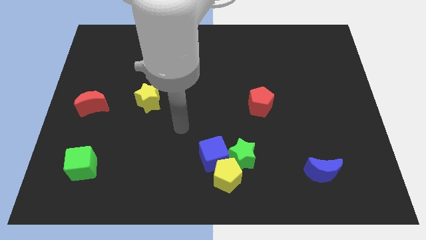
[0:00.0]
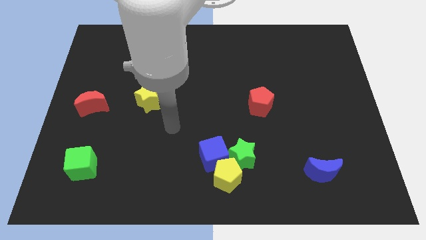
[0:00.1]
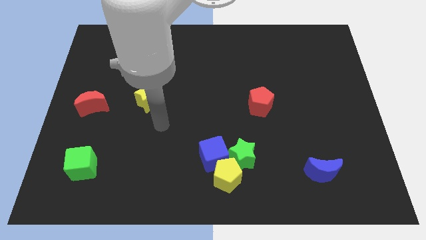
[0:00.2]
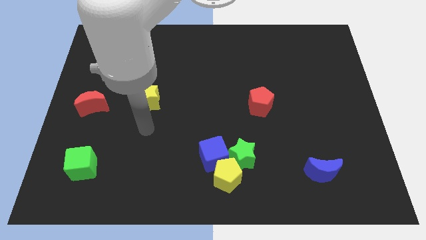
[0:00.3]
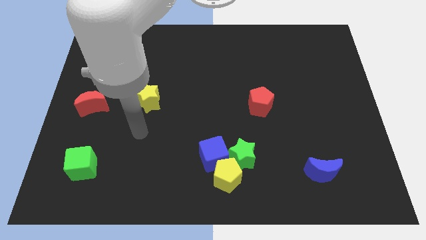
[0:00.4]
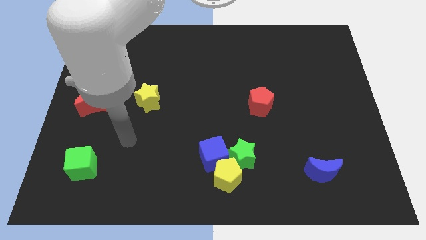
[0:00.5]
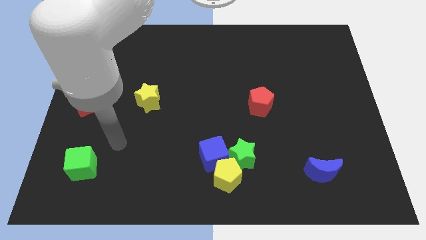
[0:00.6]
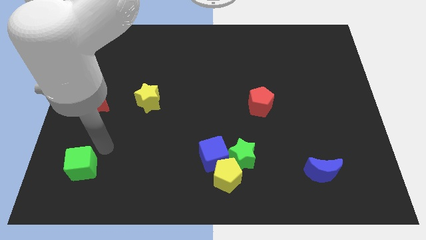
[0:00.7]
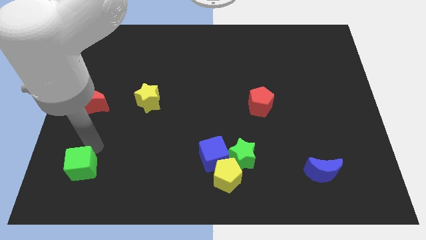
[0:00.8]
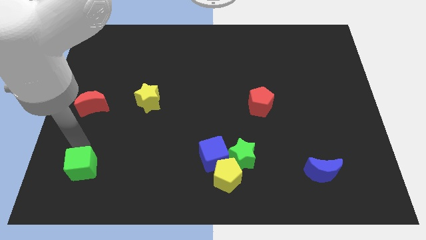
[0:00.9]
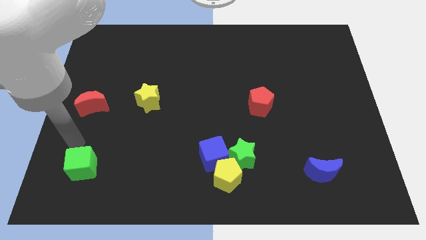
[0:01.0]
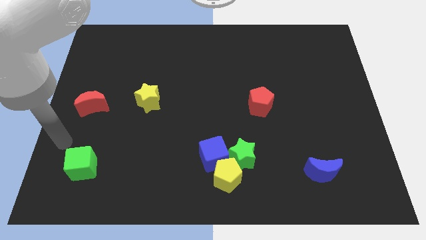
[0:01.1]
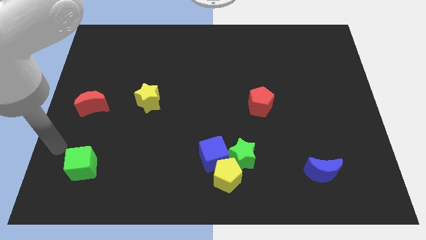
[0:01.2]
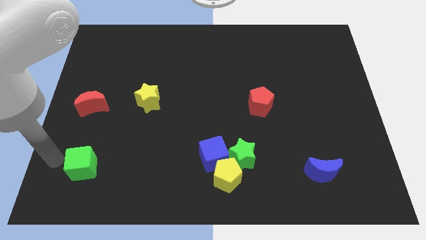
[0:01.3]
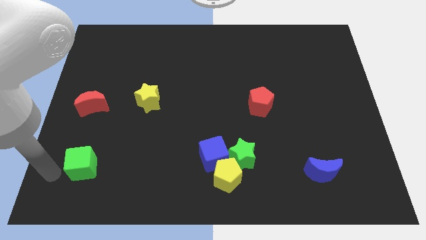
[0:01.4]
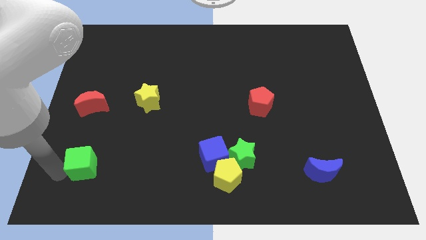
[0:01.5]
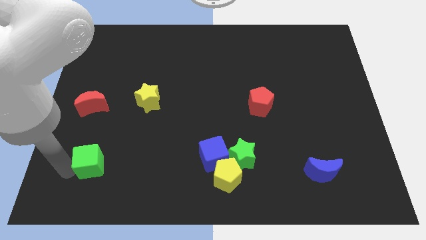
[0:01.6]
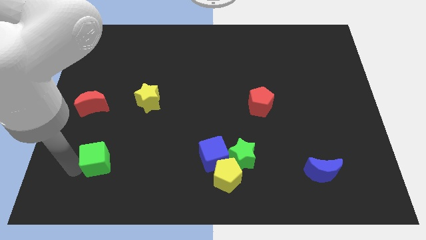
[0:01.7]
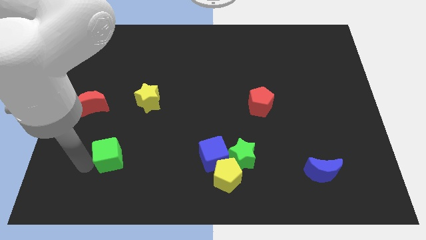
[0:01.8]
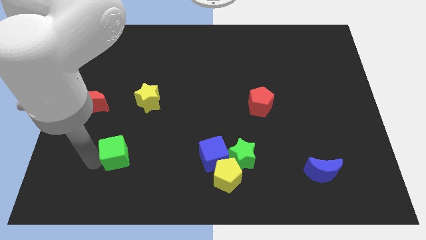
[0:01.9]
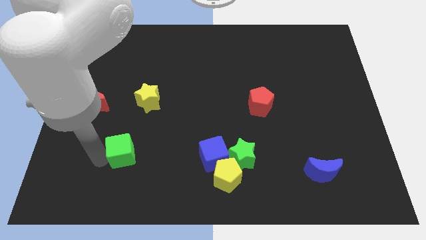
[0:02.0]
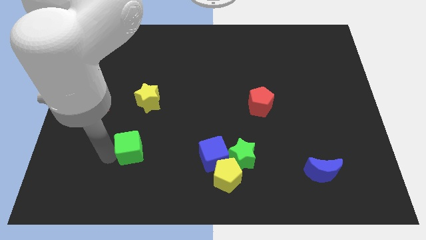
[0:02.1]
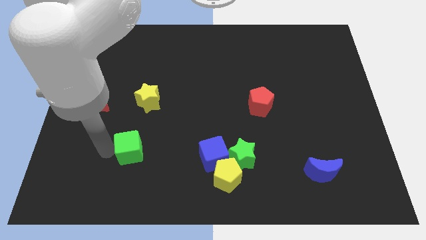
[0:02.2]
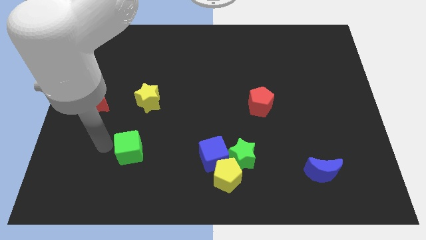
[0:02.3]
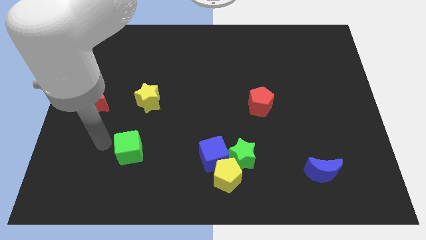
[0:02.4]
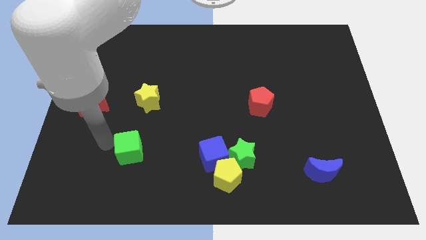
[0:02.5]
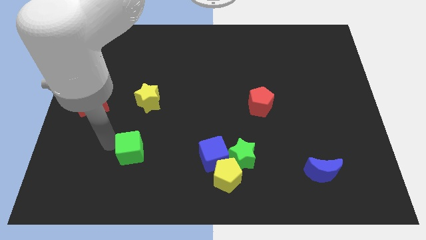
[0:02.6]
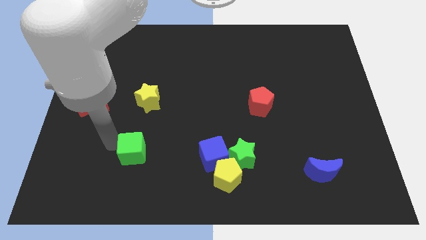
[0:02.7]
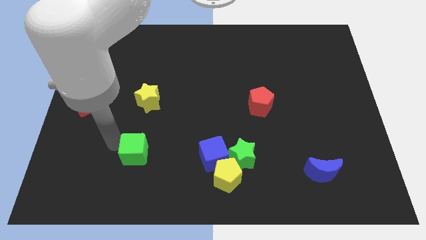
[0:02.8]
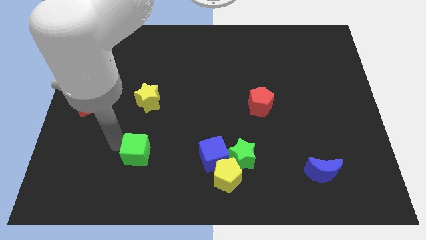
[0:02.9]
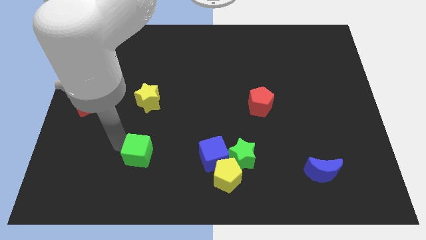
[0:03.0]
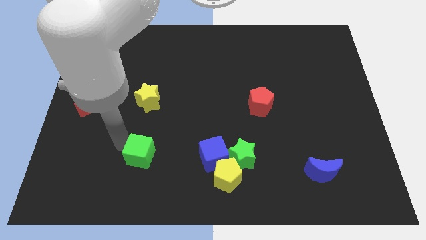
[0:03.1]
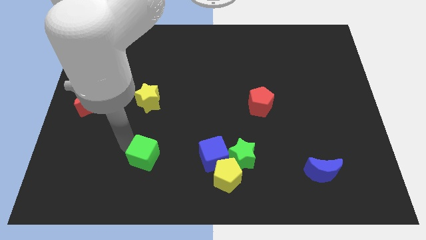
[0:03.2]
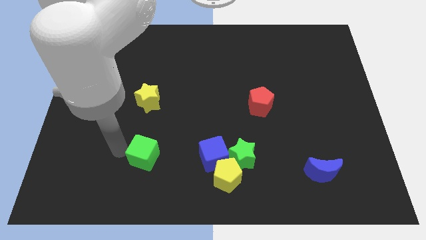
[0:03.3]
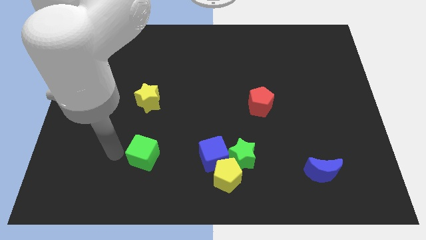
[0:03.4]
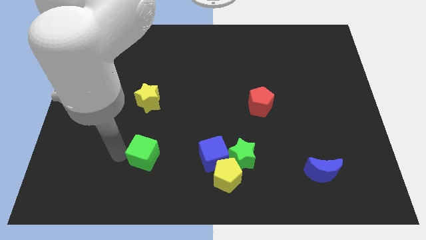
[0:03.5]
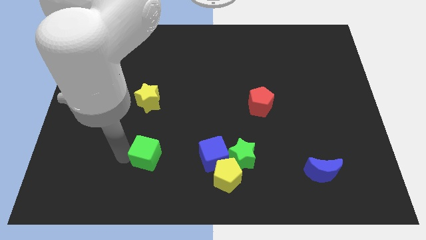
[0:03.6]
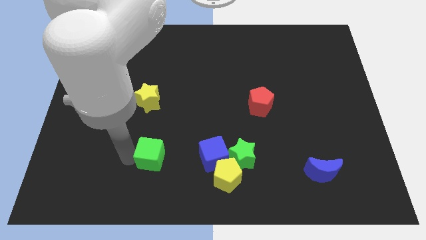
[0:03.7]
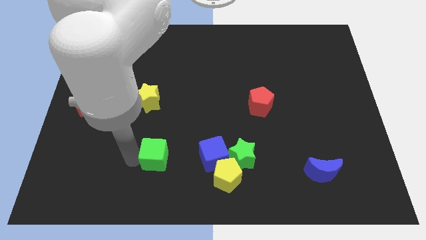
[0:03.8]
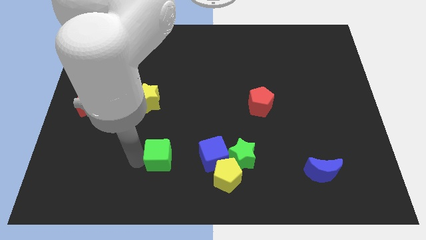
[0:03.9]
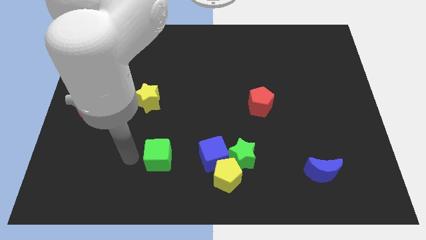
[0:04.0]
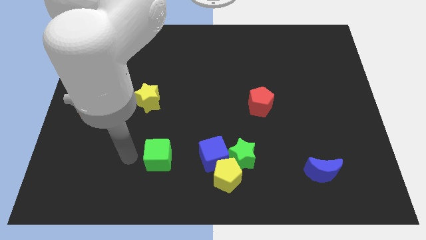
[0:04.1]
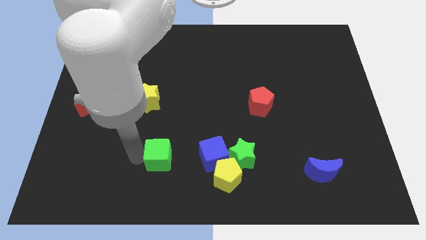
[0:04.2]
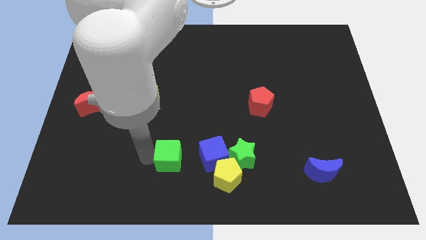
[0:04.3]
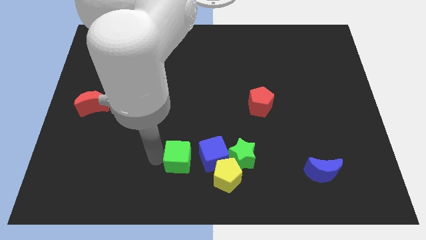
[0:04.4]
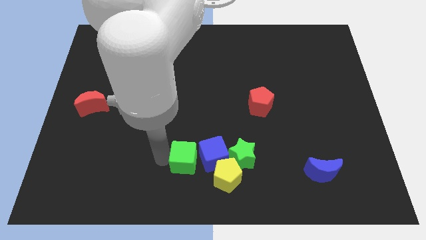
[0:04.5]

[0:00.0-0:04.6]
put the green cube towards the blue cube

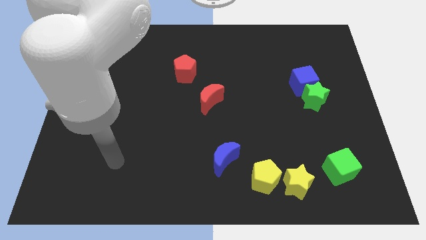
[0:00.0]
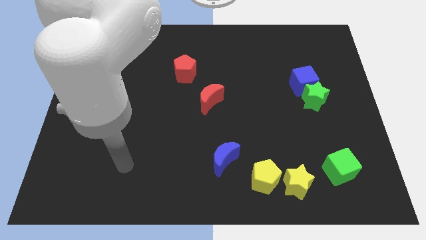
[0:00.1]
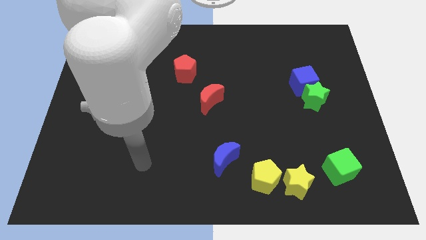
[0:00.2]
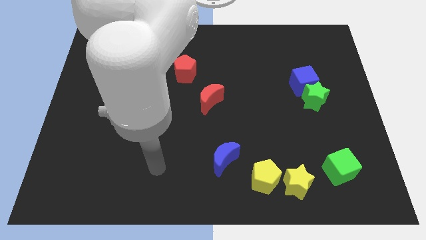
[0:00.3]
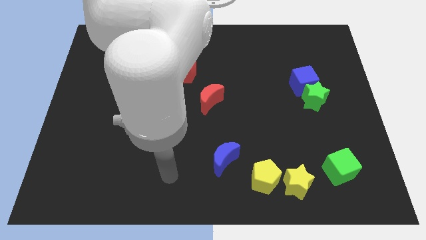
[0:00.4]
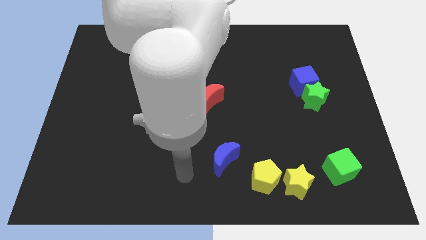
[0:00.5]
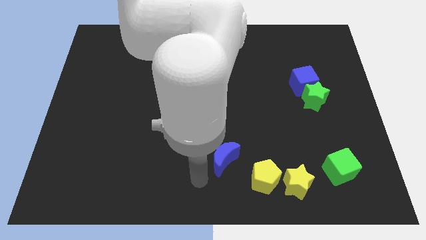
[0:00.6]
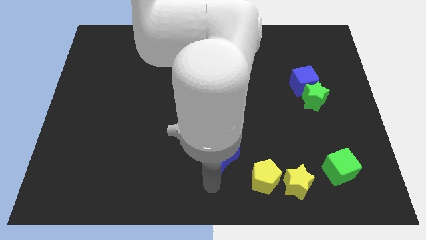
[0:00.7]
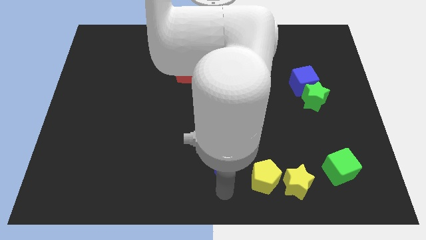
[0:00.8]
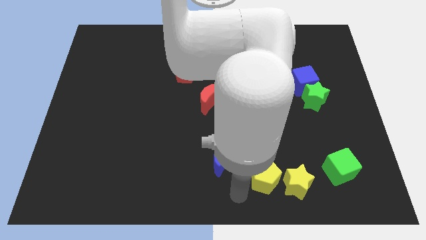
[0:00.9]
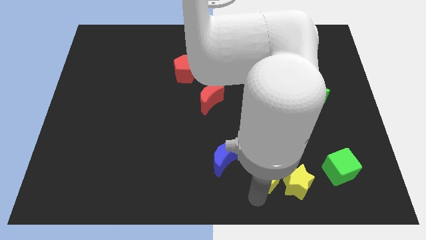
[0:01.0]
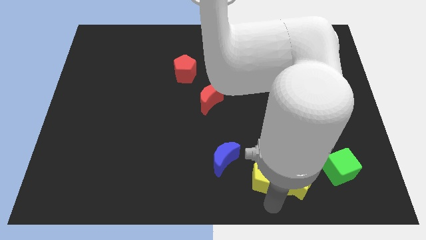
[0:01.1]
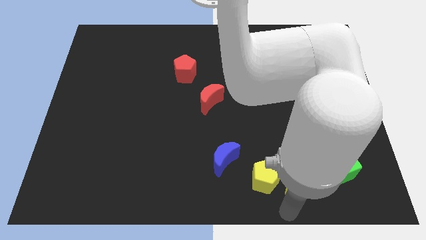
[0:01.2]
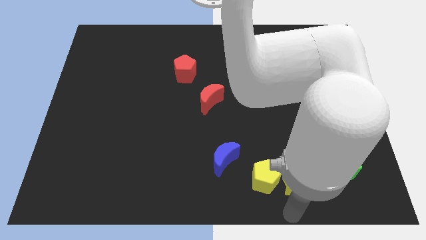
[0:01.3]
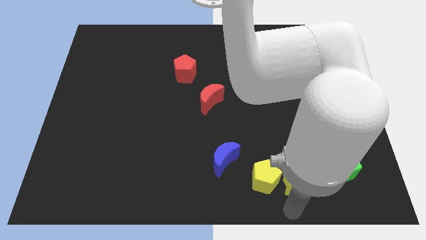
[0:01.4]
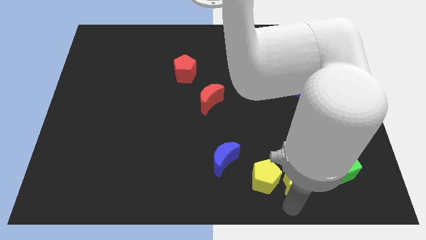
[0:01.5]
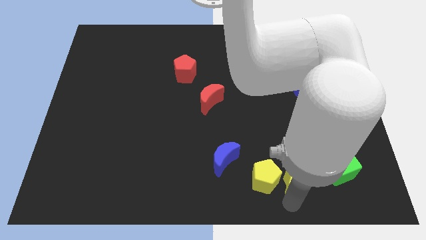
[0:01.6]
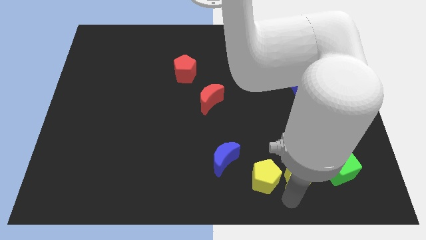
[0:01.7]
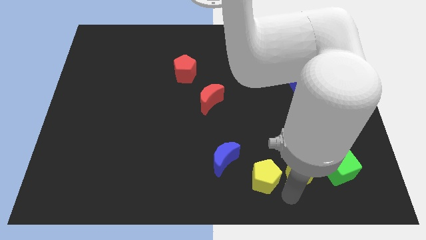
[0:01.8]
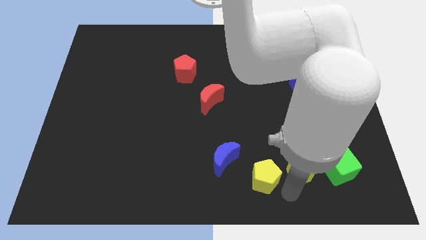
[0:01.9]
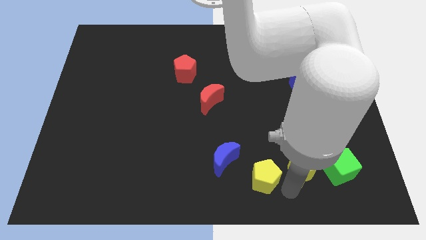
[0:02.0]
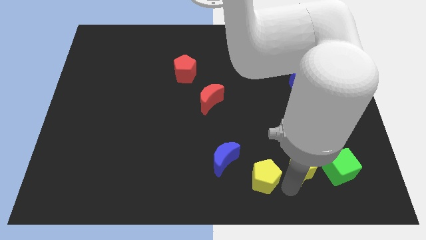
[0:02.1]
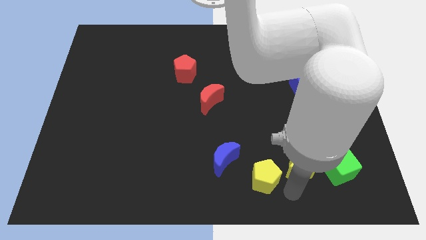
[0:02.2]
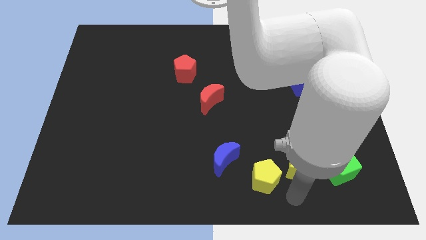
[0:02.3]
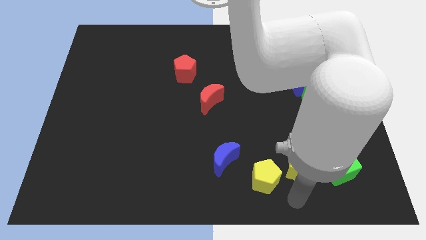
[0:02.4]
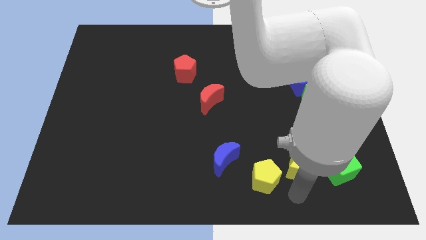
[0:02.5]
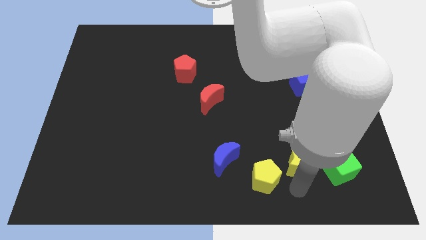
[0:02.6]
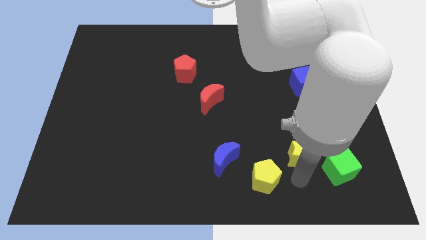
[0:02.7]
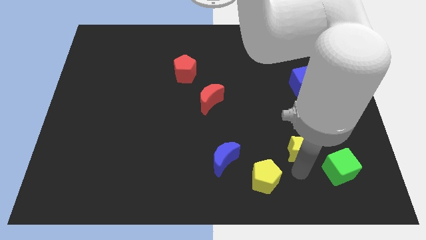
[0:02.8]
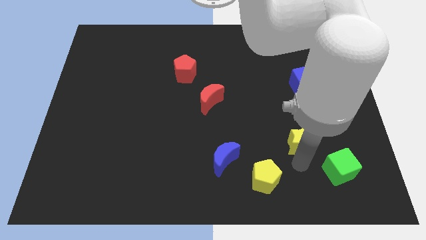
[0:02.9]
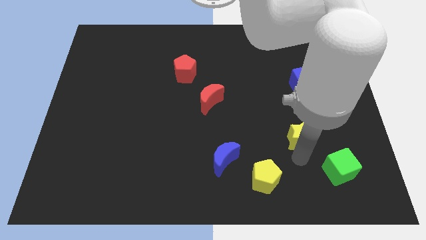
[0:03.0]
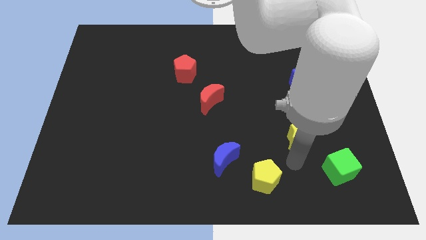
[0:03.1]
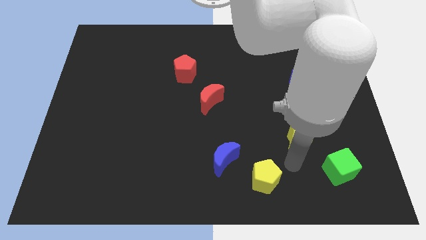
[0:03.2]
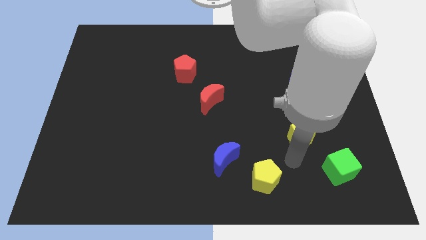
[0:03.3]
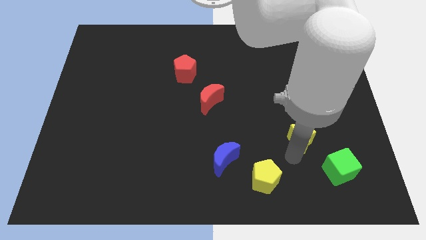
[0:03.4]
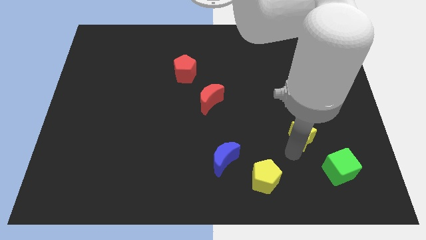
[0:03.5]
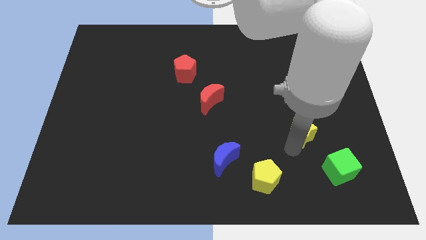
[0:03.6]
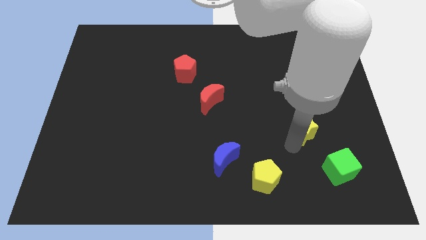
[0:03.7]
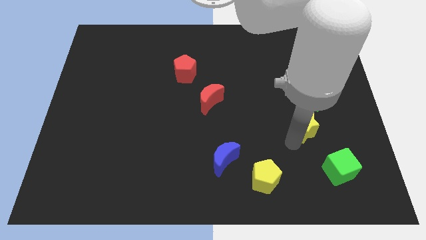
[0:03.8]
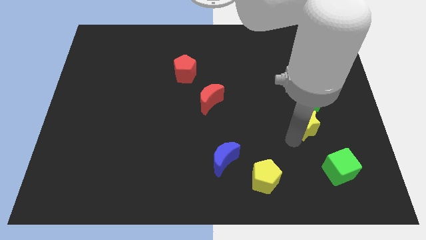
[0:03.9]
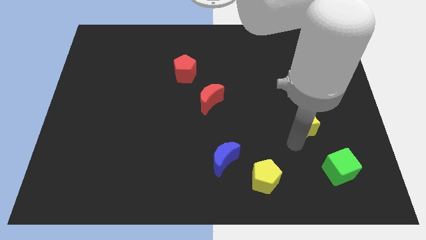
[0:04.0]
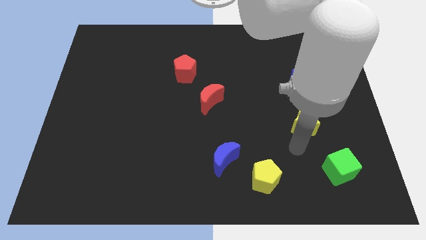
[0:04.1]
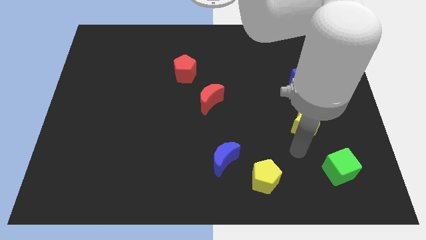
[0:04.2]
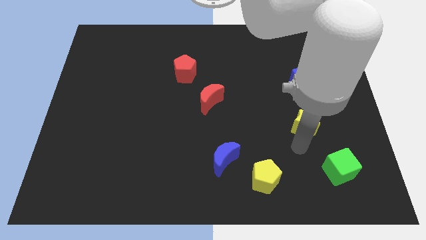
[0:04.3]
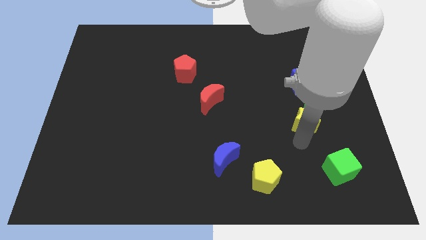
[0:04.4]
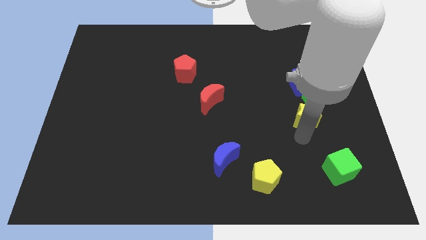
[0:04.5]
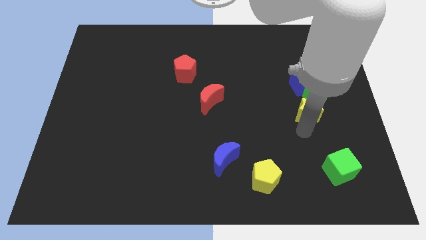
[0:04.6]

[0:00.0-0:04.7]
put the yellow star to the green star
